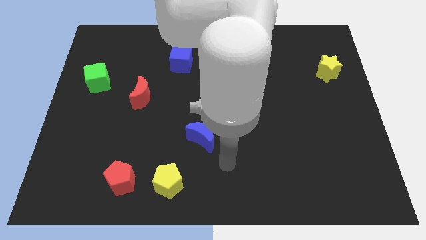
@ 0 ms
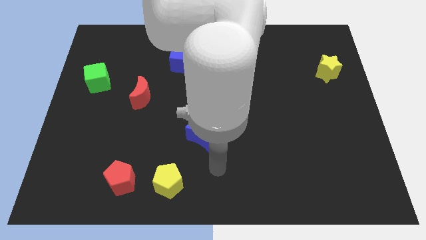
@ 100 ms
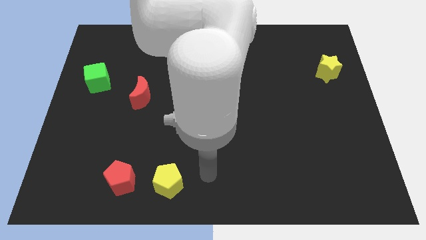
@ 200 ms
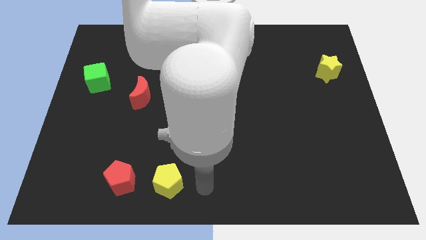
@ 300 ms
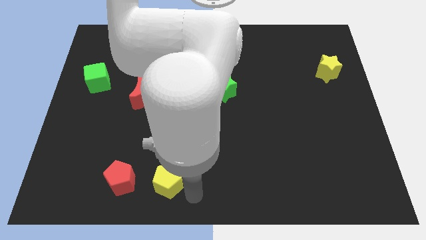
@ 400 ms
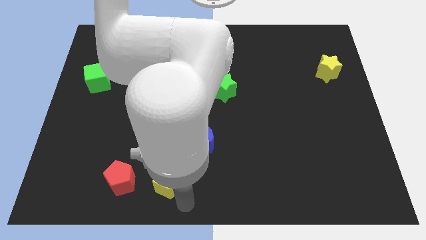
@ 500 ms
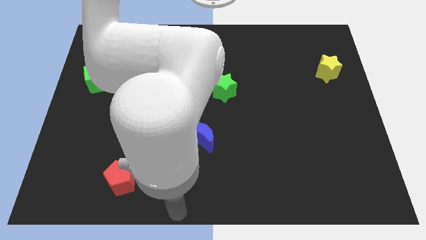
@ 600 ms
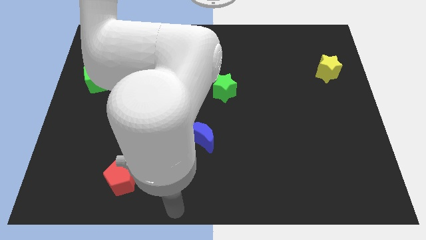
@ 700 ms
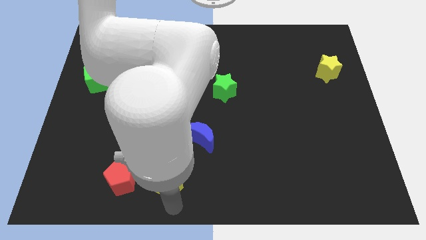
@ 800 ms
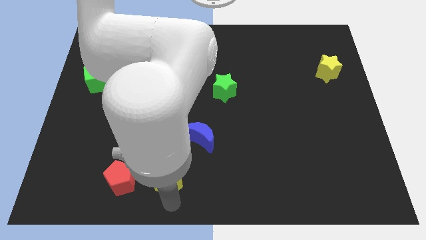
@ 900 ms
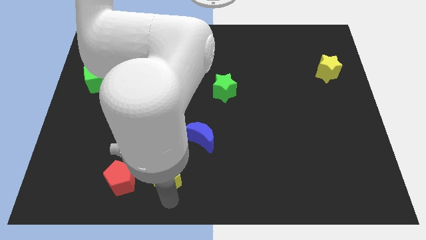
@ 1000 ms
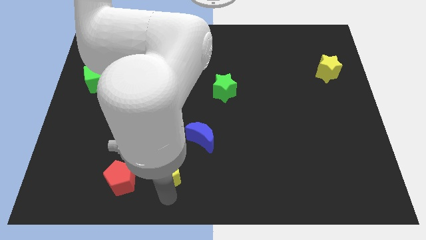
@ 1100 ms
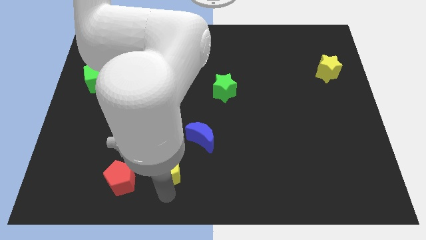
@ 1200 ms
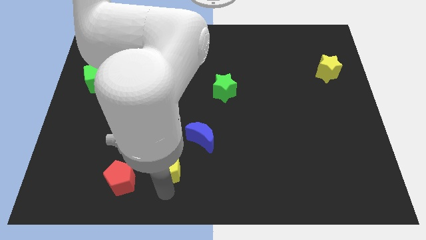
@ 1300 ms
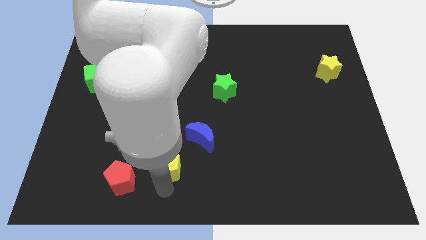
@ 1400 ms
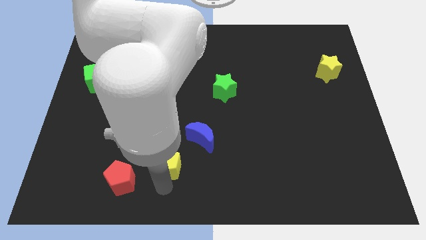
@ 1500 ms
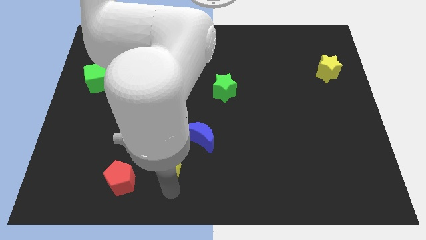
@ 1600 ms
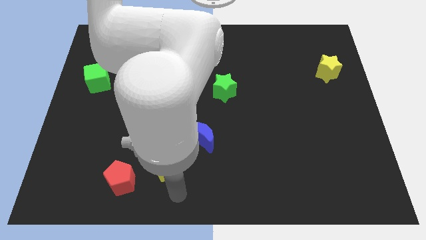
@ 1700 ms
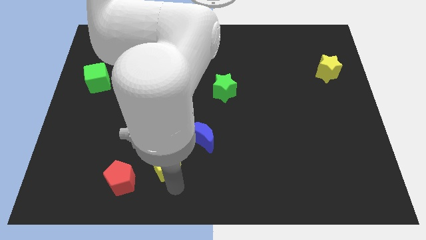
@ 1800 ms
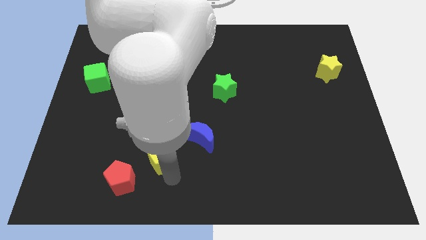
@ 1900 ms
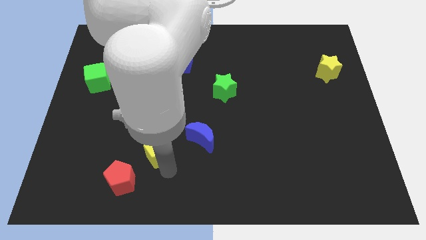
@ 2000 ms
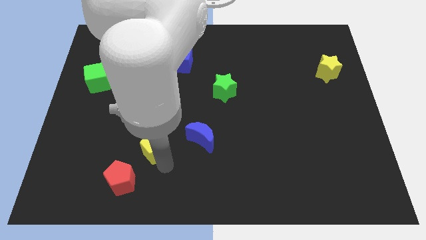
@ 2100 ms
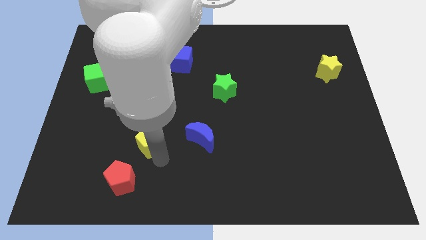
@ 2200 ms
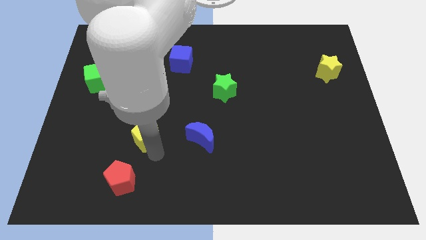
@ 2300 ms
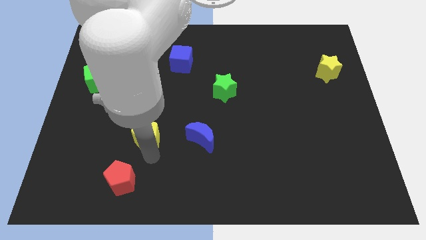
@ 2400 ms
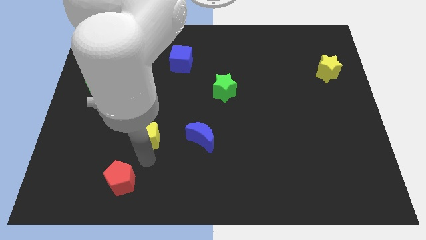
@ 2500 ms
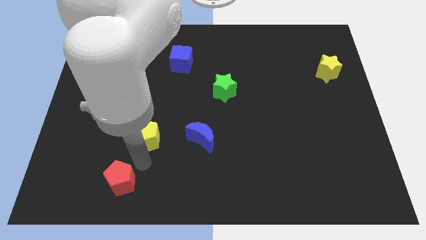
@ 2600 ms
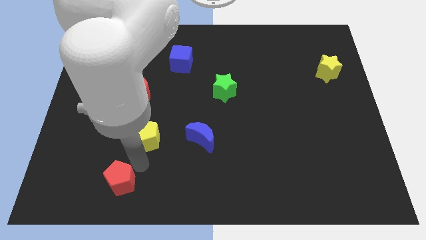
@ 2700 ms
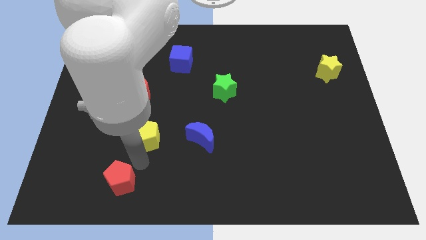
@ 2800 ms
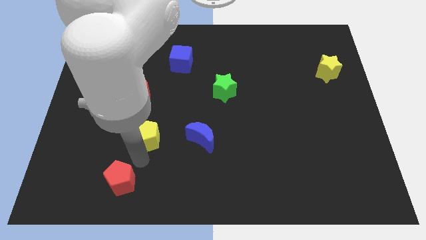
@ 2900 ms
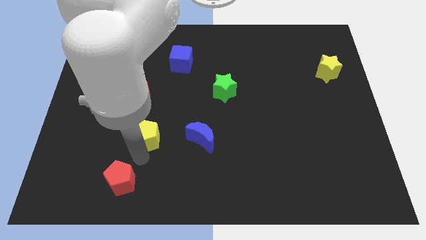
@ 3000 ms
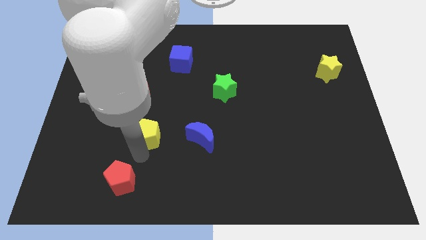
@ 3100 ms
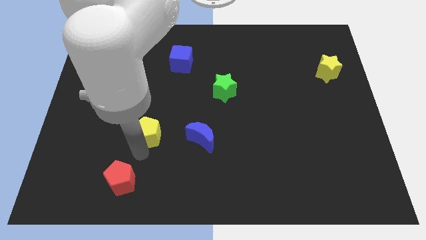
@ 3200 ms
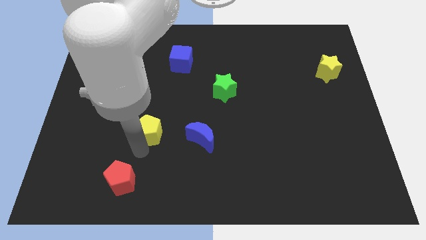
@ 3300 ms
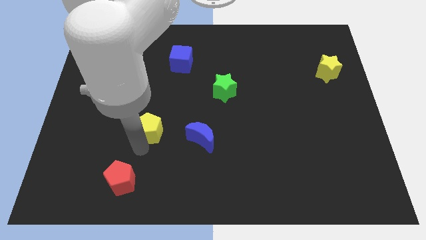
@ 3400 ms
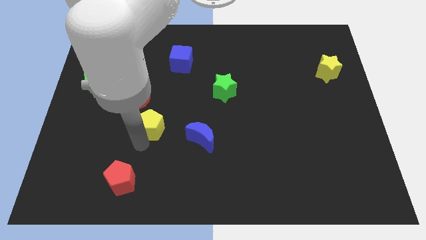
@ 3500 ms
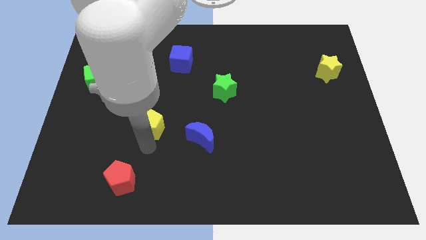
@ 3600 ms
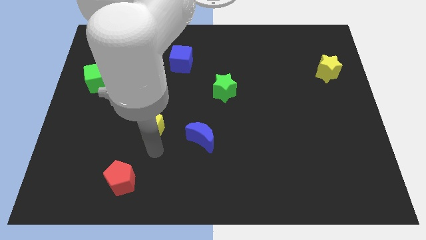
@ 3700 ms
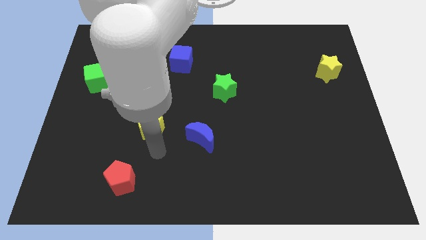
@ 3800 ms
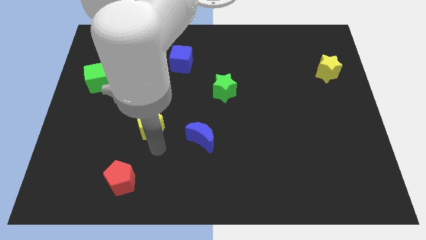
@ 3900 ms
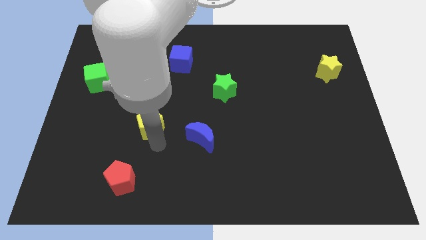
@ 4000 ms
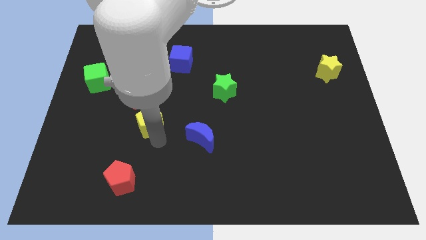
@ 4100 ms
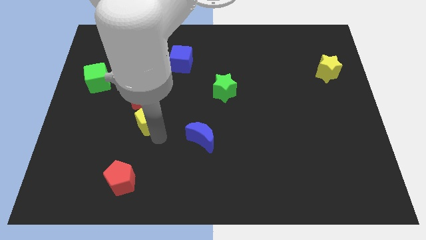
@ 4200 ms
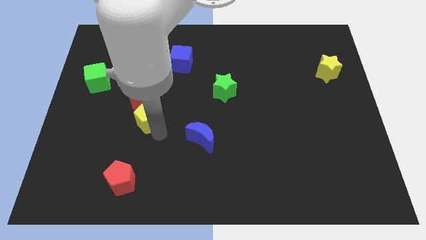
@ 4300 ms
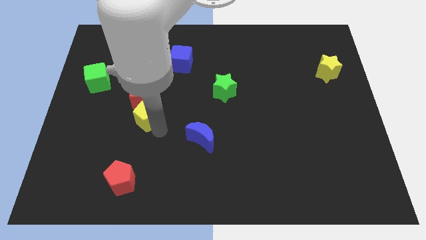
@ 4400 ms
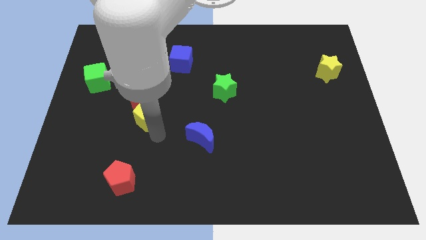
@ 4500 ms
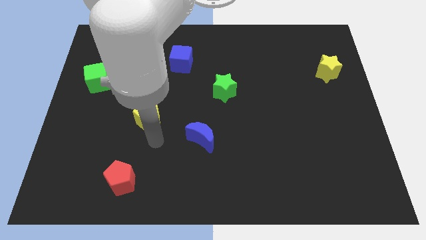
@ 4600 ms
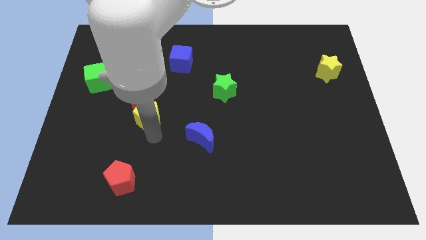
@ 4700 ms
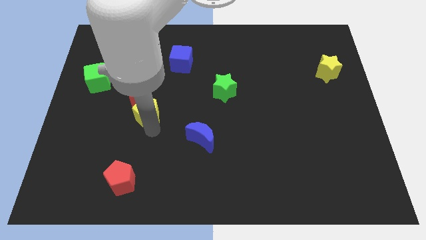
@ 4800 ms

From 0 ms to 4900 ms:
slide the yellow pentagon close to the red moon

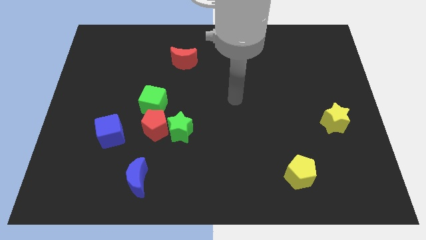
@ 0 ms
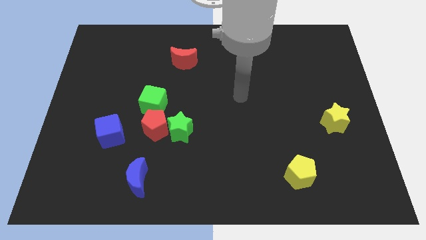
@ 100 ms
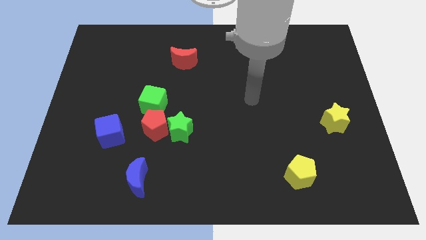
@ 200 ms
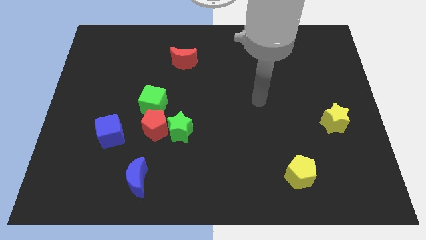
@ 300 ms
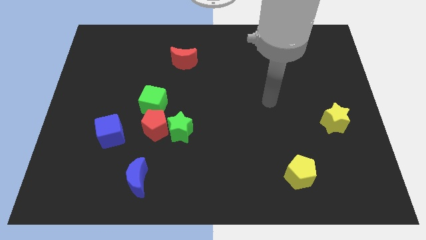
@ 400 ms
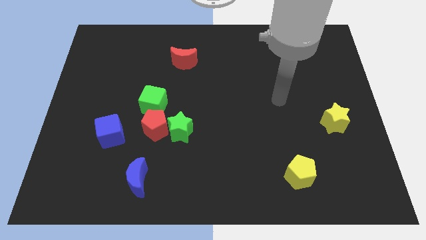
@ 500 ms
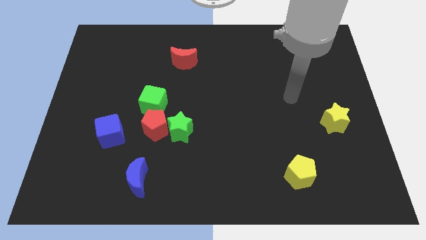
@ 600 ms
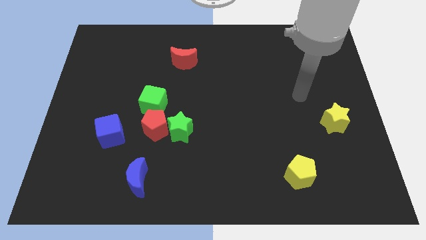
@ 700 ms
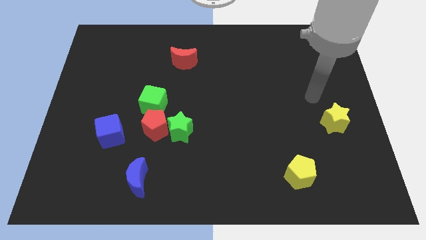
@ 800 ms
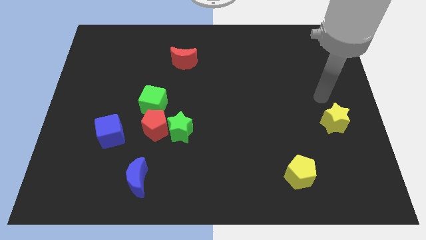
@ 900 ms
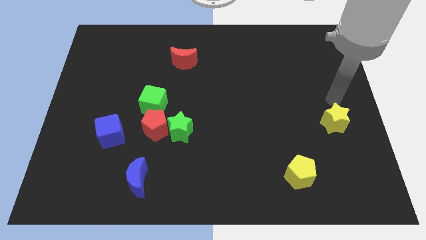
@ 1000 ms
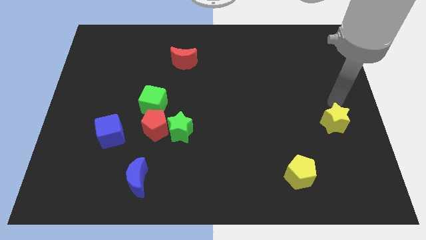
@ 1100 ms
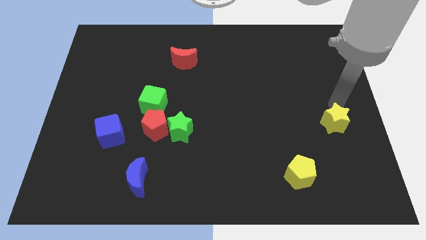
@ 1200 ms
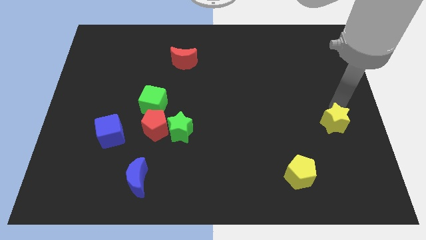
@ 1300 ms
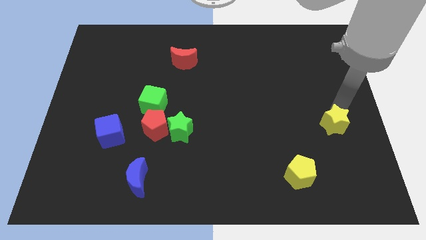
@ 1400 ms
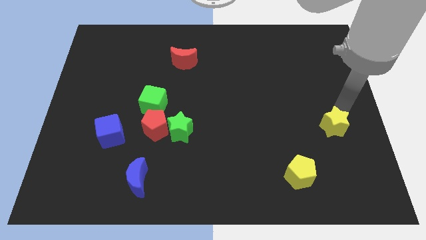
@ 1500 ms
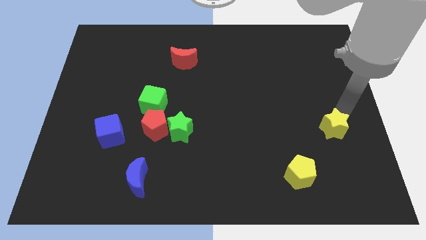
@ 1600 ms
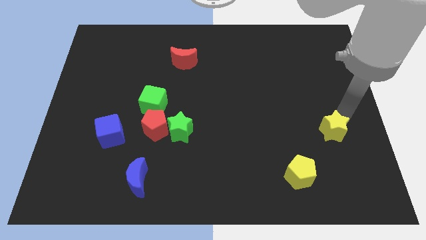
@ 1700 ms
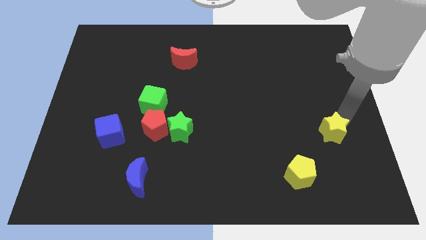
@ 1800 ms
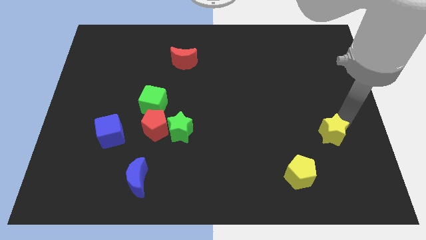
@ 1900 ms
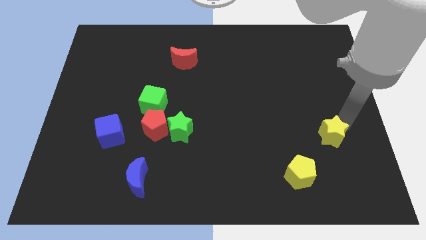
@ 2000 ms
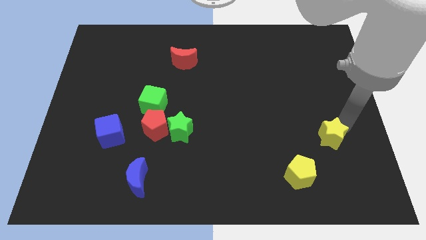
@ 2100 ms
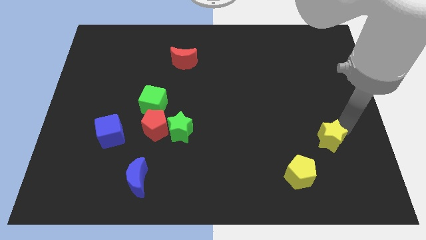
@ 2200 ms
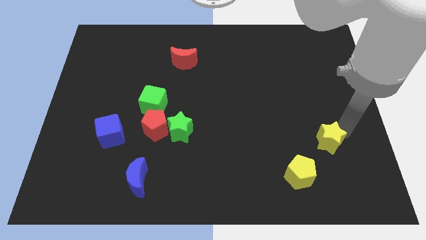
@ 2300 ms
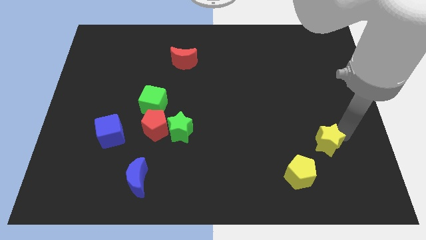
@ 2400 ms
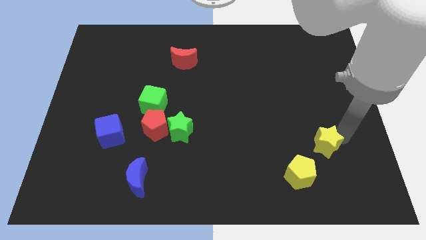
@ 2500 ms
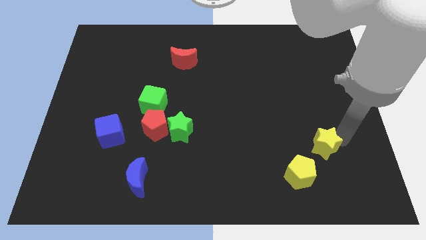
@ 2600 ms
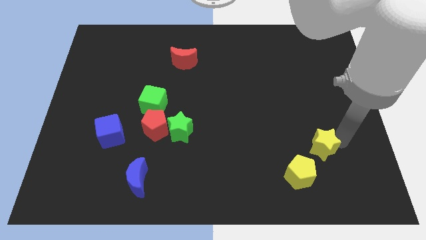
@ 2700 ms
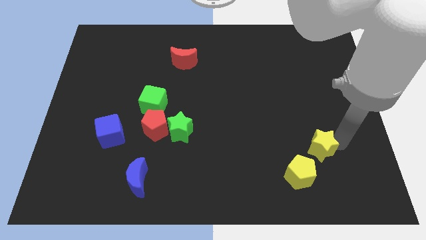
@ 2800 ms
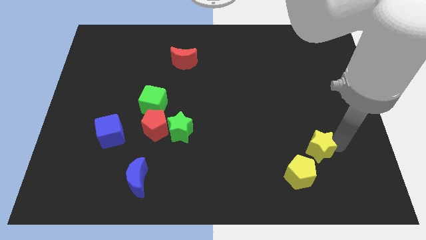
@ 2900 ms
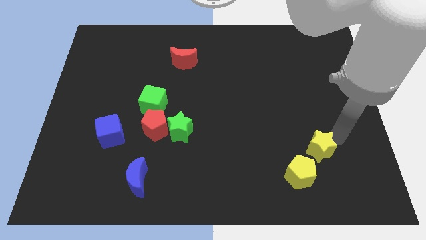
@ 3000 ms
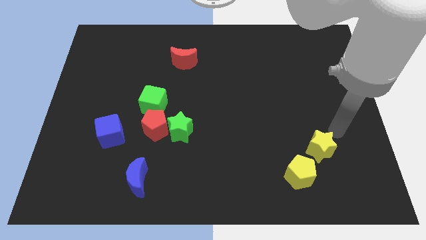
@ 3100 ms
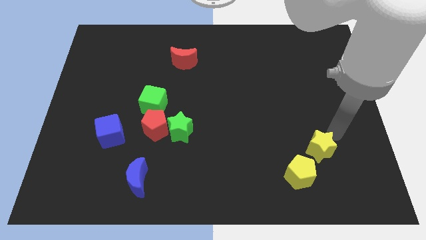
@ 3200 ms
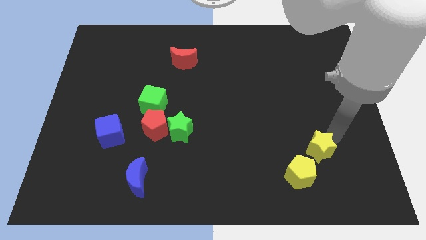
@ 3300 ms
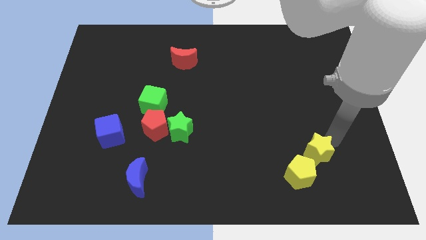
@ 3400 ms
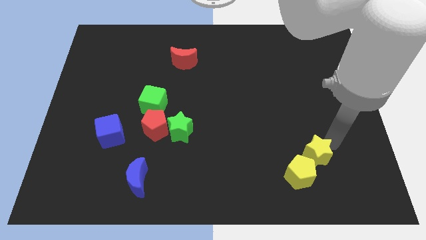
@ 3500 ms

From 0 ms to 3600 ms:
move the yellow star to the yellow pentagon
